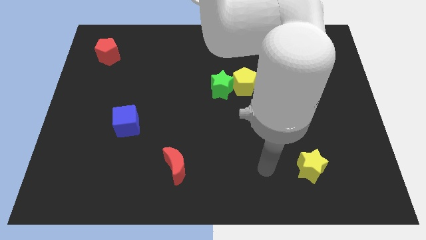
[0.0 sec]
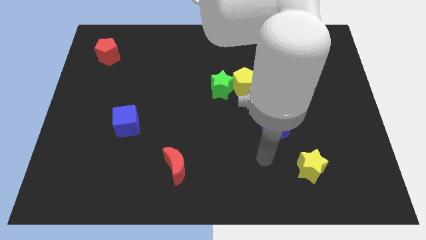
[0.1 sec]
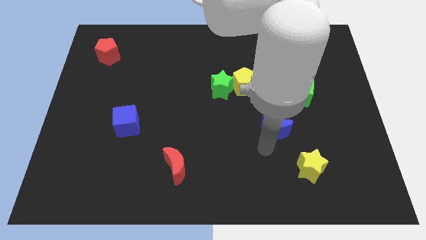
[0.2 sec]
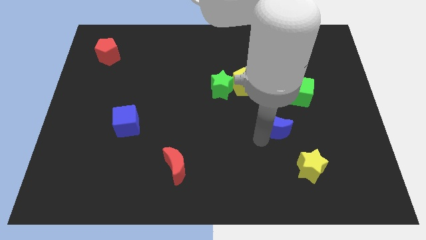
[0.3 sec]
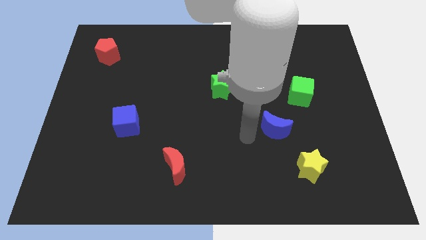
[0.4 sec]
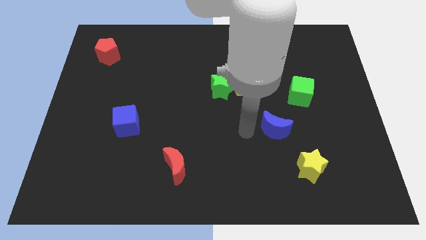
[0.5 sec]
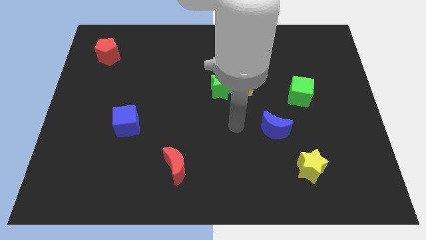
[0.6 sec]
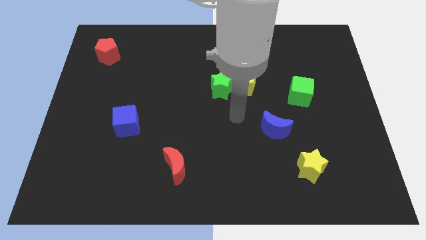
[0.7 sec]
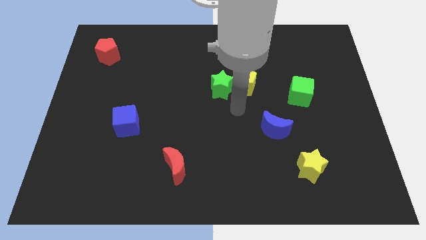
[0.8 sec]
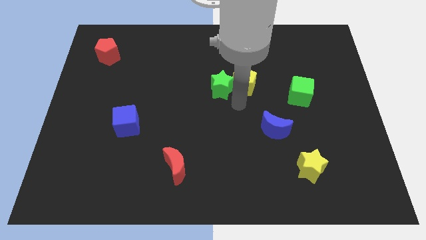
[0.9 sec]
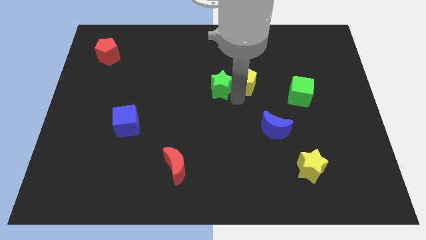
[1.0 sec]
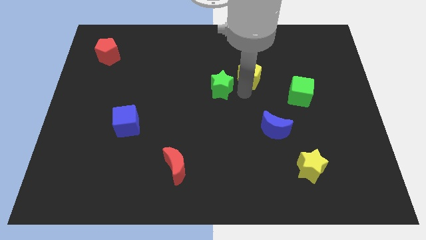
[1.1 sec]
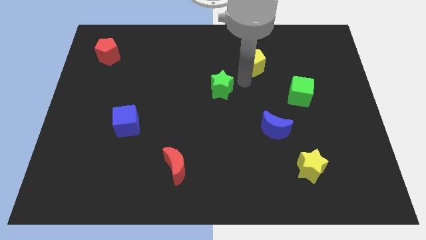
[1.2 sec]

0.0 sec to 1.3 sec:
move the green star away from the yellow pentagon

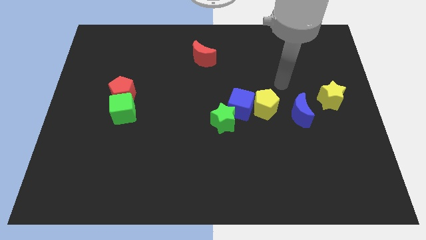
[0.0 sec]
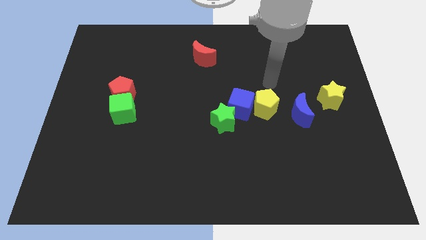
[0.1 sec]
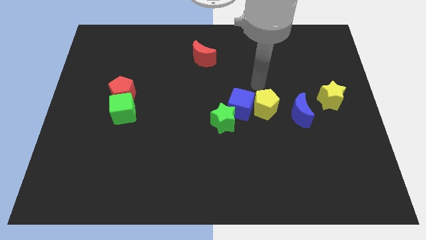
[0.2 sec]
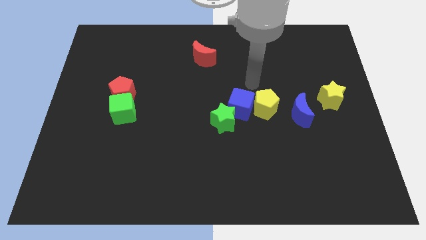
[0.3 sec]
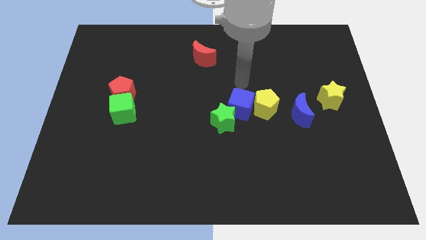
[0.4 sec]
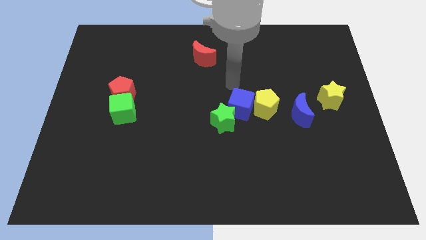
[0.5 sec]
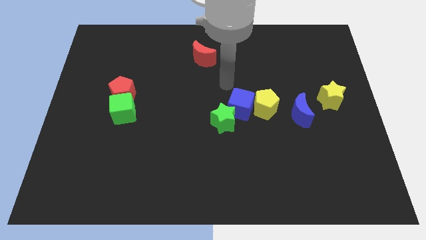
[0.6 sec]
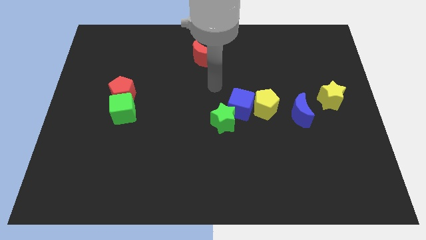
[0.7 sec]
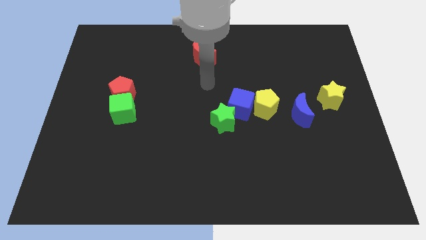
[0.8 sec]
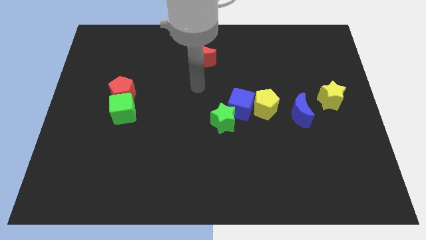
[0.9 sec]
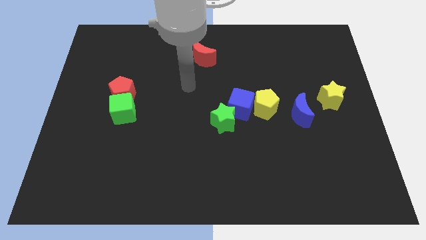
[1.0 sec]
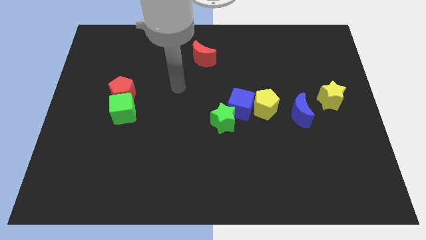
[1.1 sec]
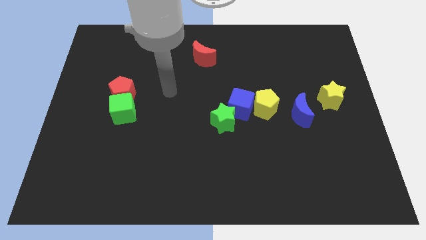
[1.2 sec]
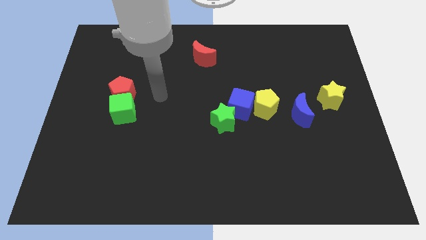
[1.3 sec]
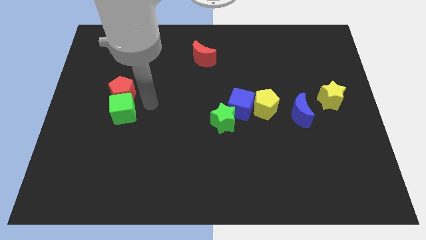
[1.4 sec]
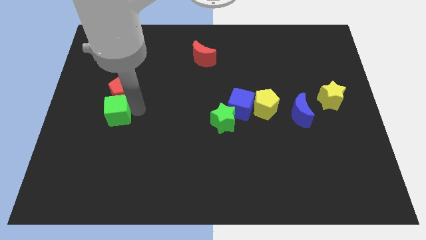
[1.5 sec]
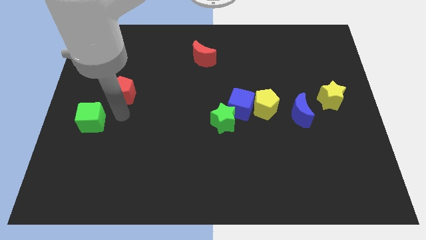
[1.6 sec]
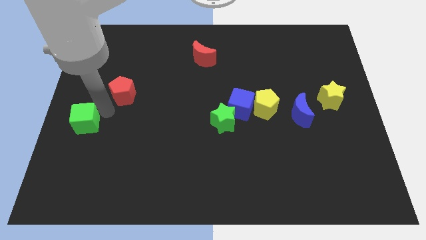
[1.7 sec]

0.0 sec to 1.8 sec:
move the red pentagon away from the green cube

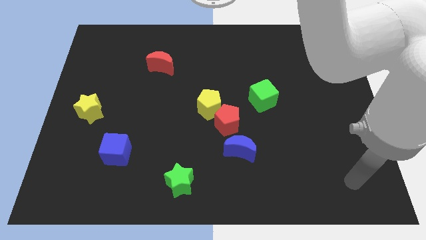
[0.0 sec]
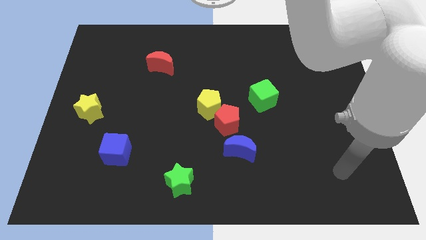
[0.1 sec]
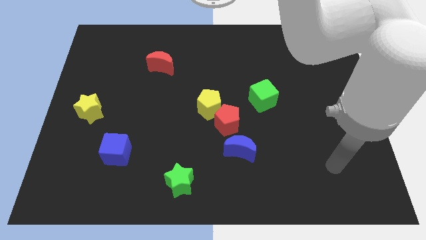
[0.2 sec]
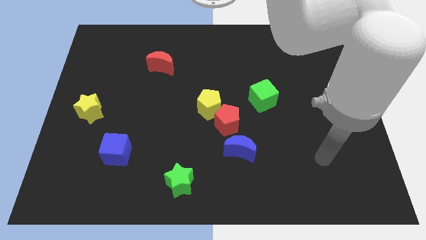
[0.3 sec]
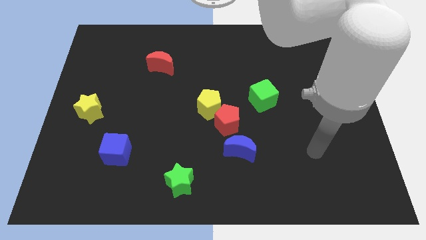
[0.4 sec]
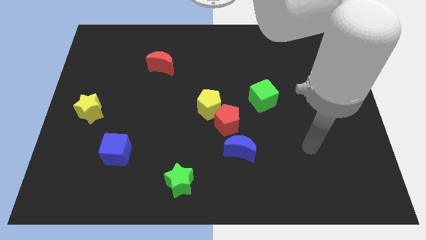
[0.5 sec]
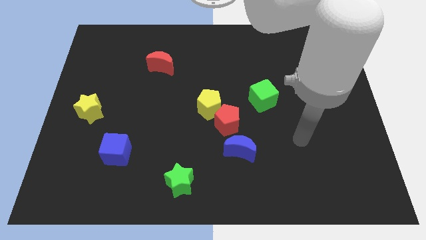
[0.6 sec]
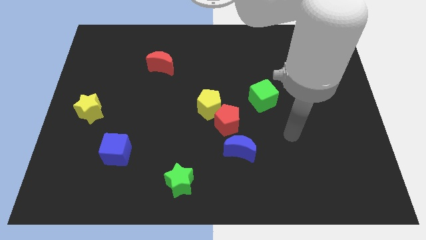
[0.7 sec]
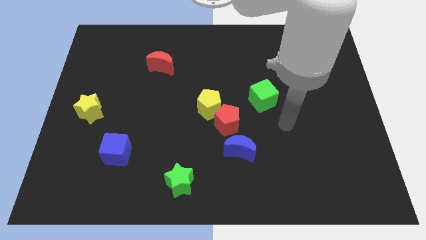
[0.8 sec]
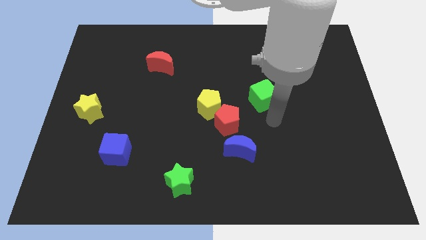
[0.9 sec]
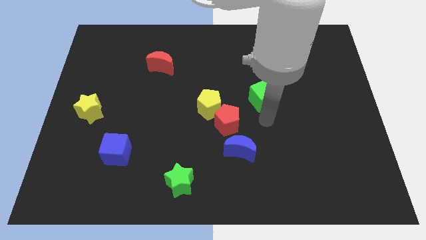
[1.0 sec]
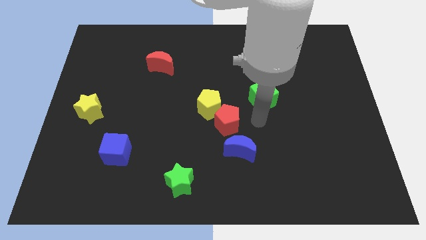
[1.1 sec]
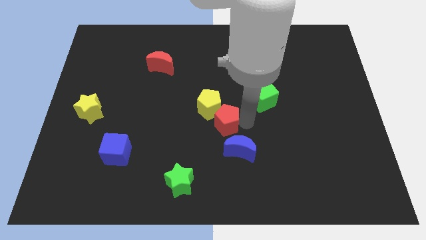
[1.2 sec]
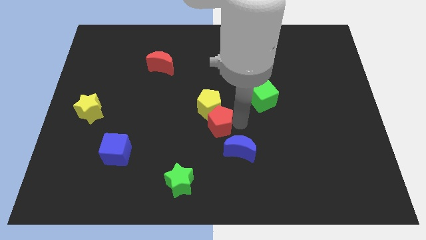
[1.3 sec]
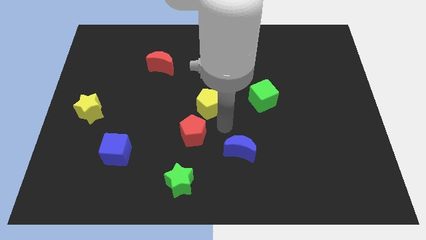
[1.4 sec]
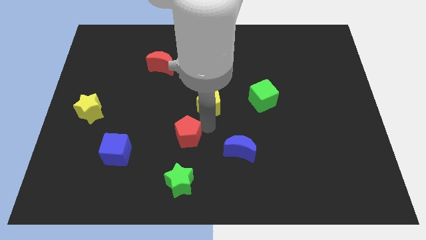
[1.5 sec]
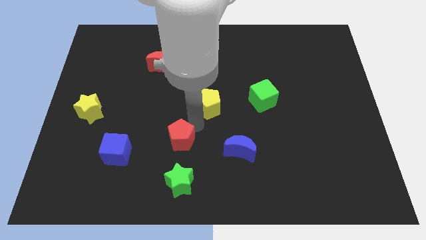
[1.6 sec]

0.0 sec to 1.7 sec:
separate the yellow pentagon from the red pentagon

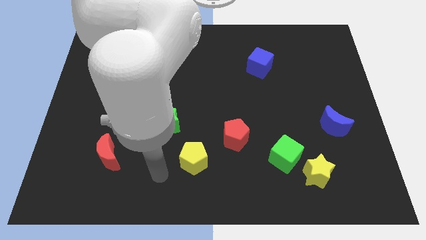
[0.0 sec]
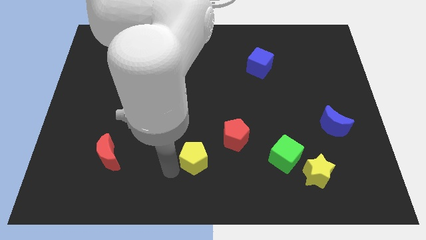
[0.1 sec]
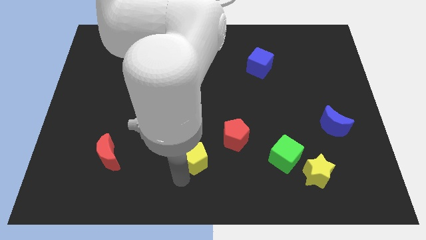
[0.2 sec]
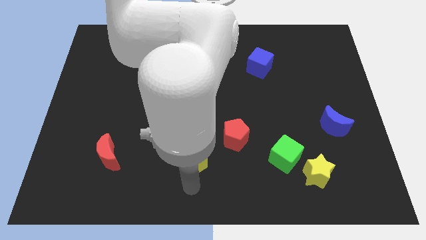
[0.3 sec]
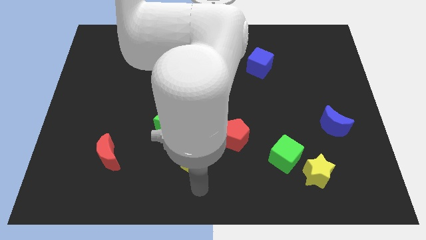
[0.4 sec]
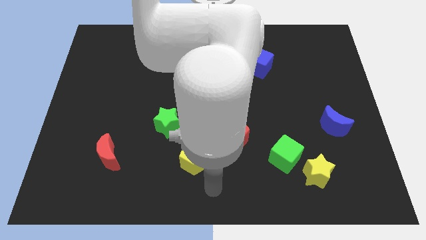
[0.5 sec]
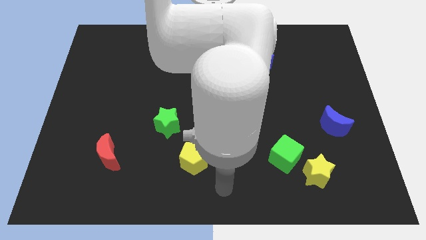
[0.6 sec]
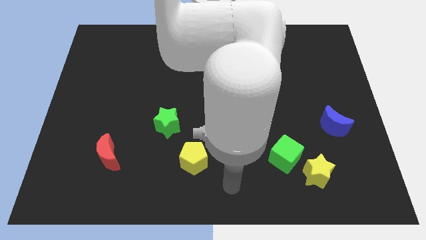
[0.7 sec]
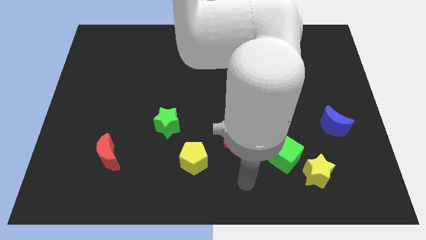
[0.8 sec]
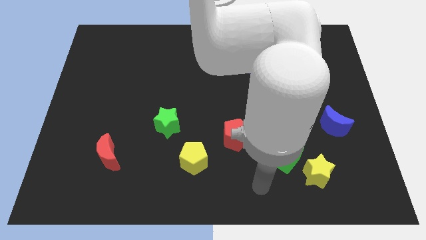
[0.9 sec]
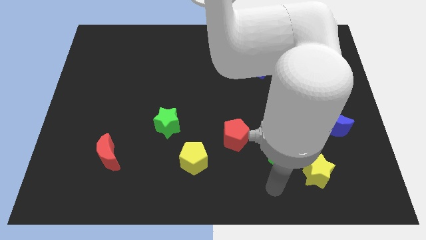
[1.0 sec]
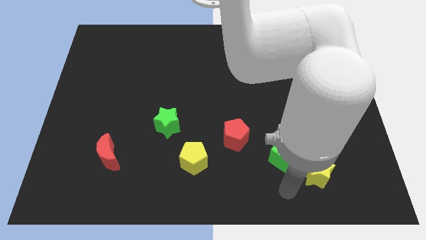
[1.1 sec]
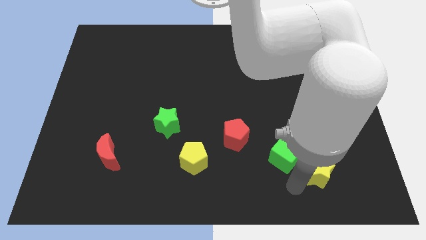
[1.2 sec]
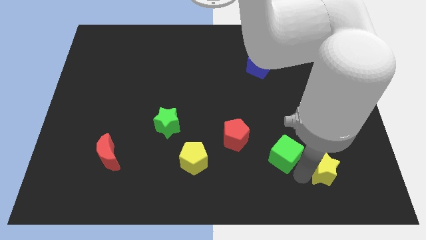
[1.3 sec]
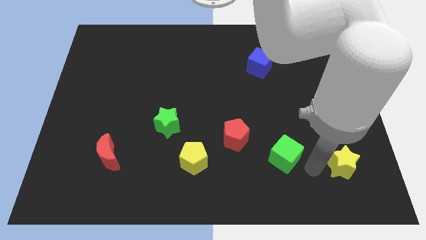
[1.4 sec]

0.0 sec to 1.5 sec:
separate the green cube from the yellow star

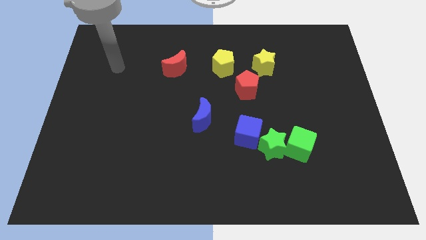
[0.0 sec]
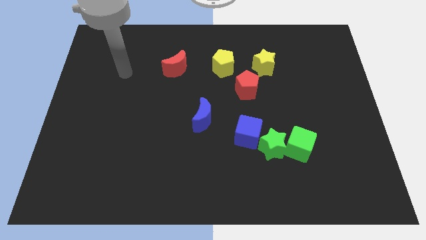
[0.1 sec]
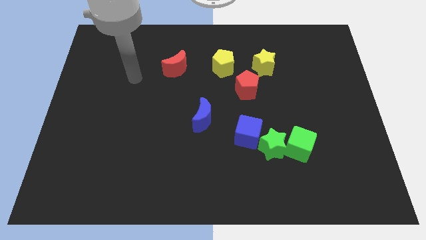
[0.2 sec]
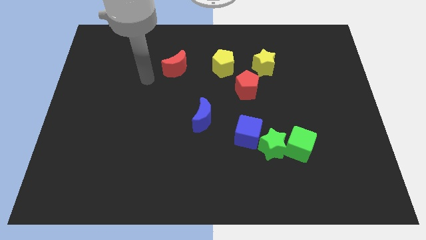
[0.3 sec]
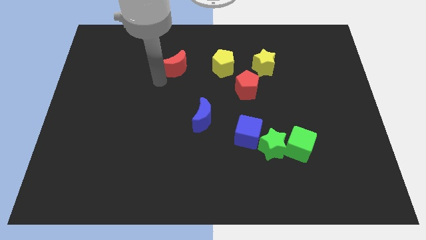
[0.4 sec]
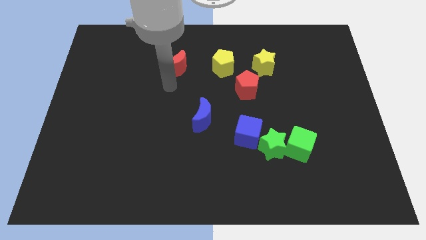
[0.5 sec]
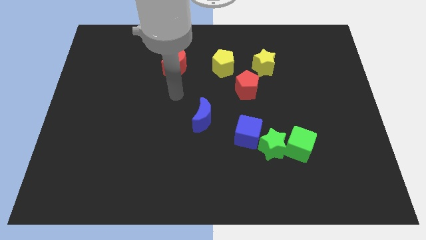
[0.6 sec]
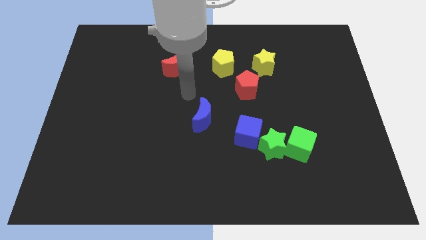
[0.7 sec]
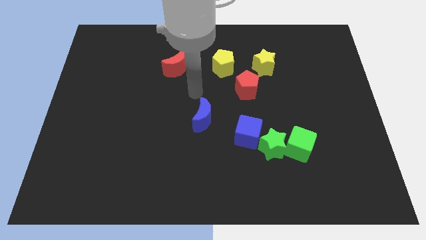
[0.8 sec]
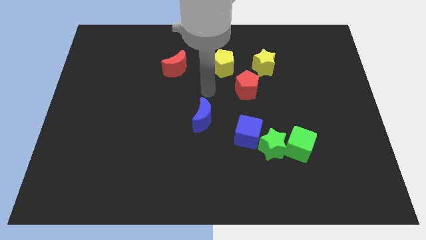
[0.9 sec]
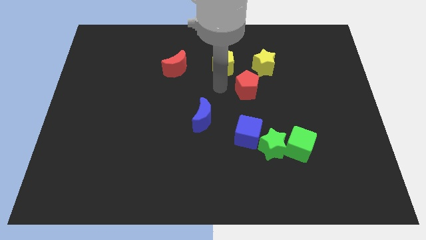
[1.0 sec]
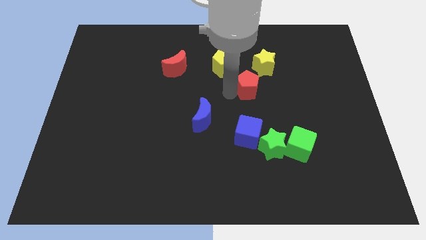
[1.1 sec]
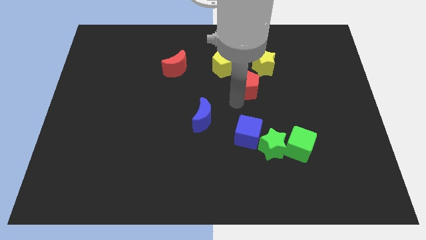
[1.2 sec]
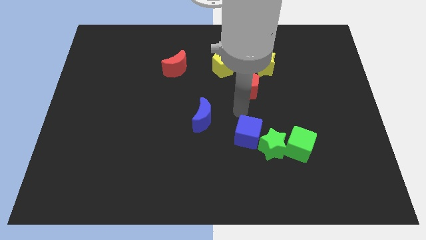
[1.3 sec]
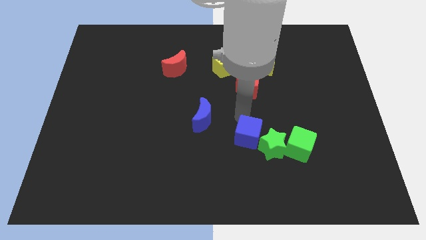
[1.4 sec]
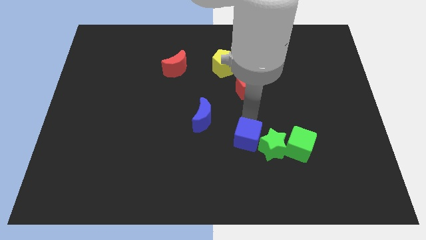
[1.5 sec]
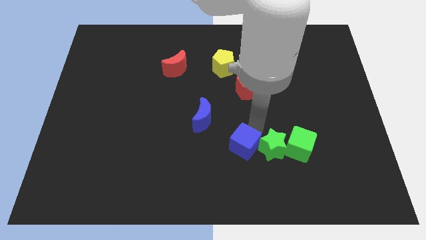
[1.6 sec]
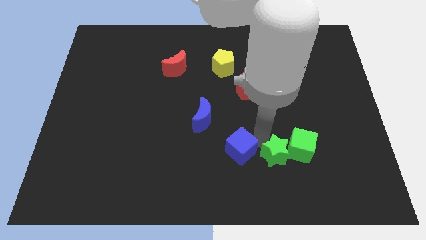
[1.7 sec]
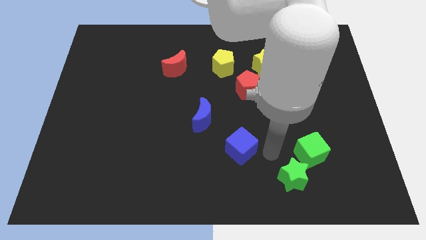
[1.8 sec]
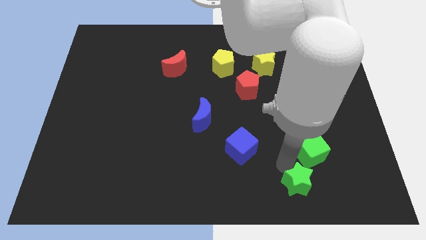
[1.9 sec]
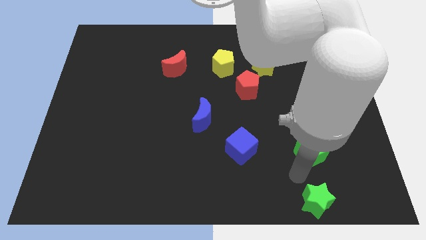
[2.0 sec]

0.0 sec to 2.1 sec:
separate the green cube from the green star

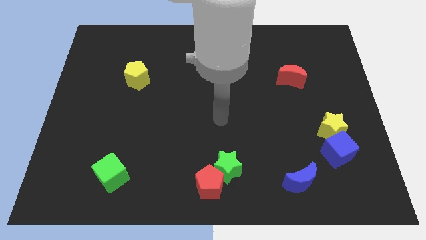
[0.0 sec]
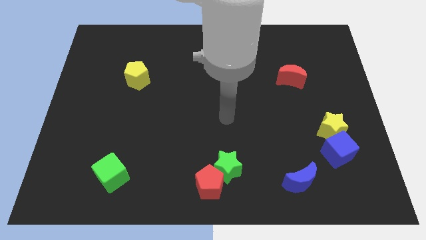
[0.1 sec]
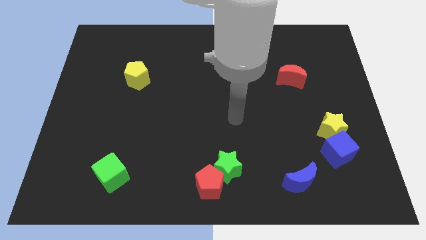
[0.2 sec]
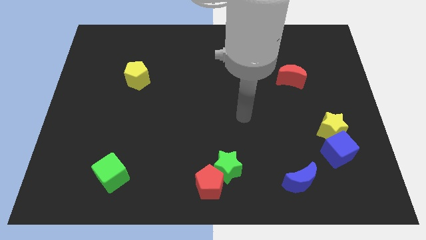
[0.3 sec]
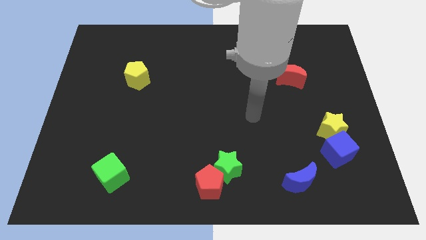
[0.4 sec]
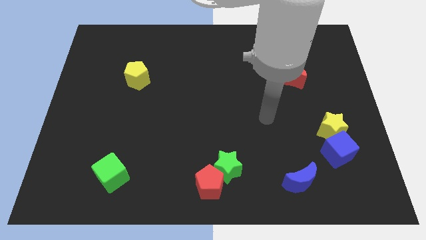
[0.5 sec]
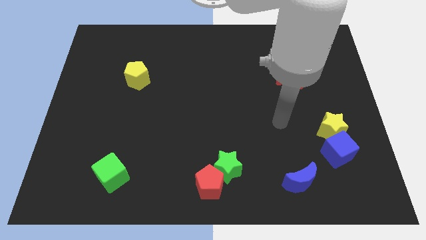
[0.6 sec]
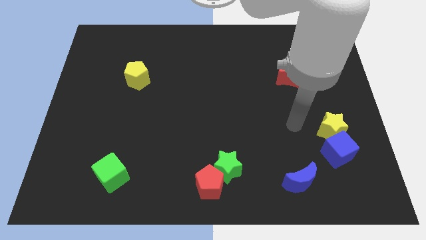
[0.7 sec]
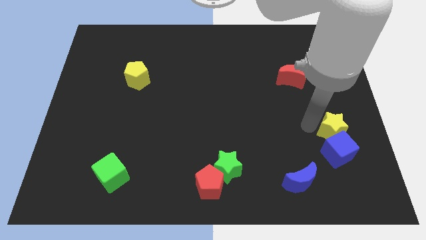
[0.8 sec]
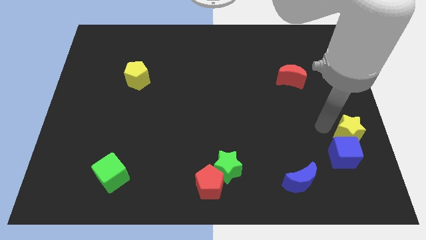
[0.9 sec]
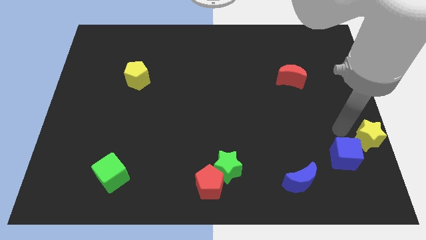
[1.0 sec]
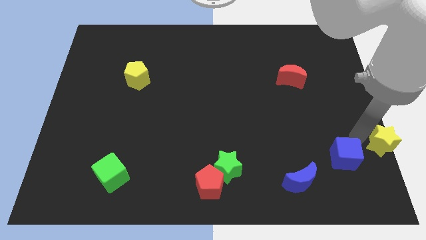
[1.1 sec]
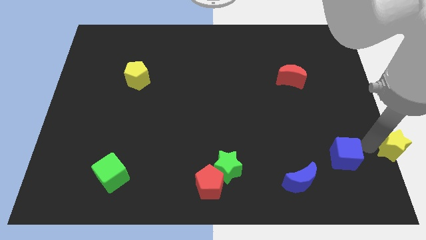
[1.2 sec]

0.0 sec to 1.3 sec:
move the blue cube away from the yellow star
